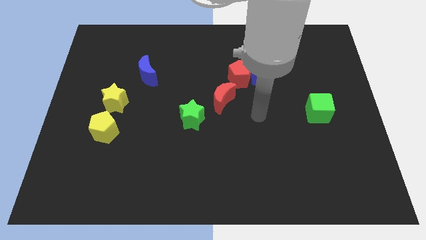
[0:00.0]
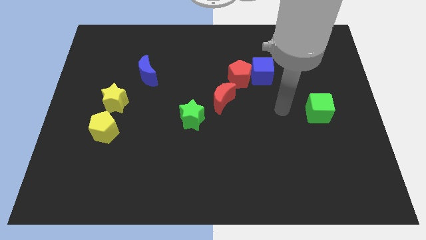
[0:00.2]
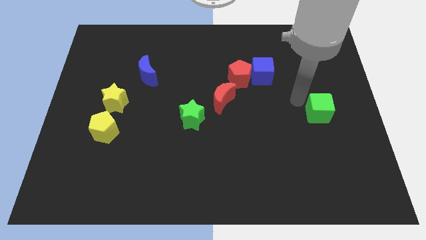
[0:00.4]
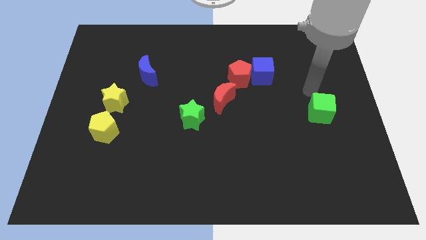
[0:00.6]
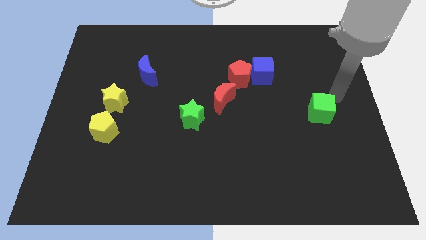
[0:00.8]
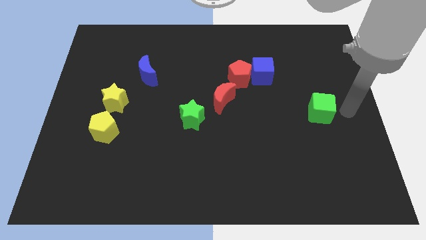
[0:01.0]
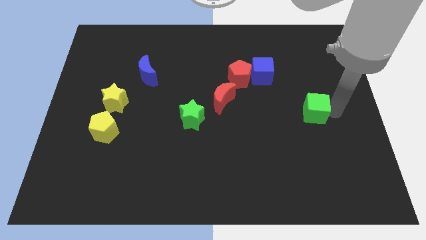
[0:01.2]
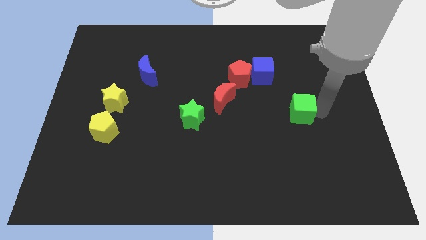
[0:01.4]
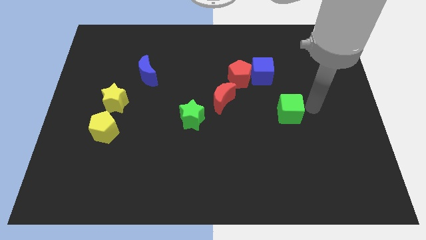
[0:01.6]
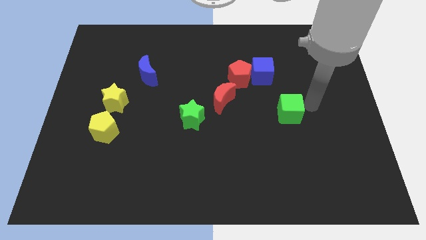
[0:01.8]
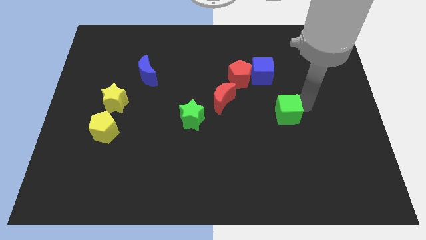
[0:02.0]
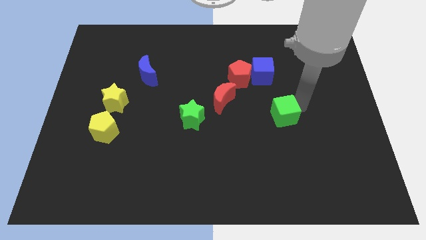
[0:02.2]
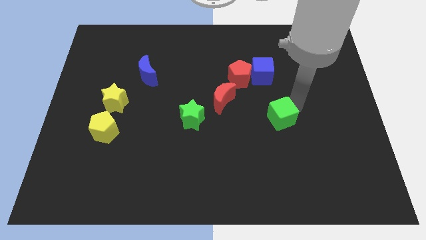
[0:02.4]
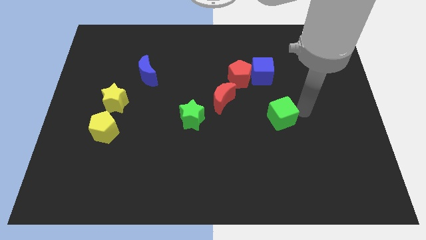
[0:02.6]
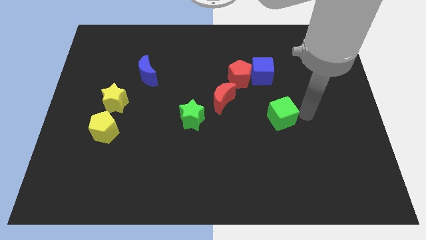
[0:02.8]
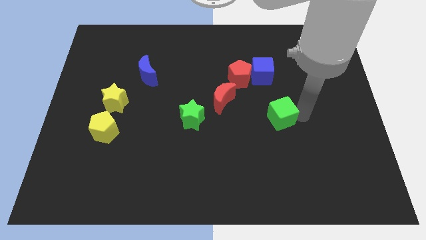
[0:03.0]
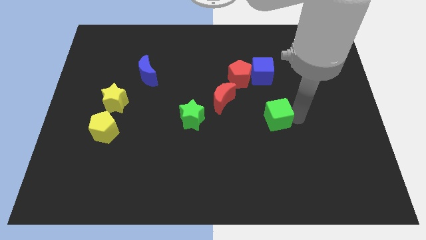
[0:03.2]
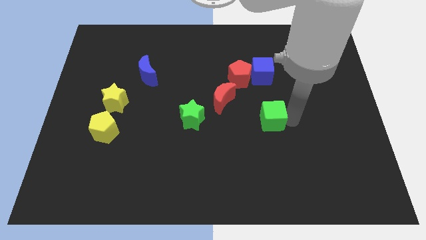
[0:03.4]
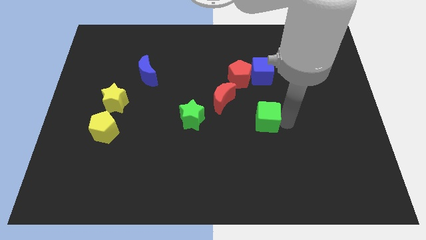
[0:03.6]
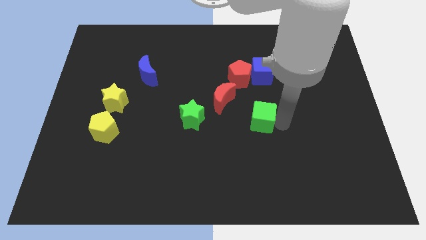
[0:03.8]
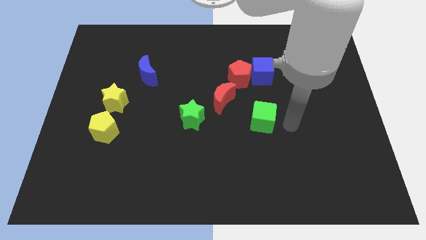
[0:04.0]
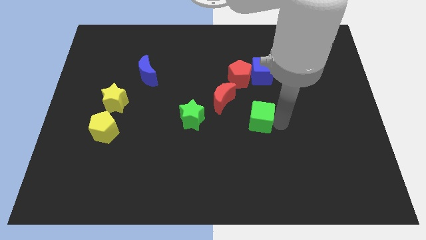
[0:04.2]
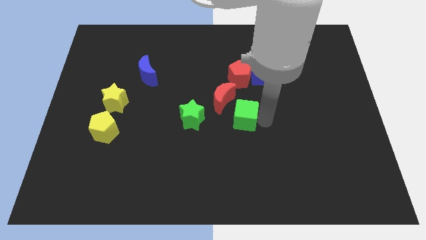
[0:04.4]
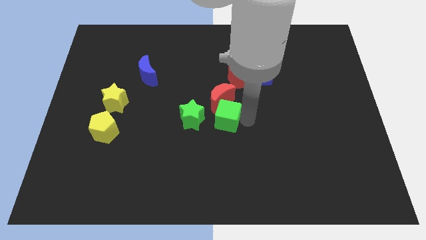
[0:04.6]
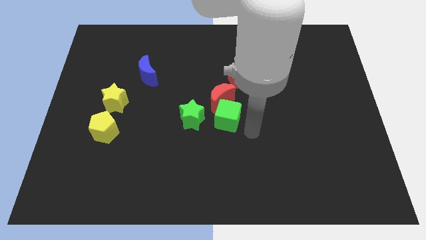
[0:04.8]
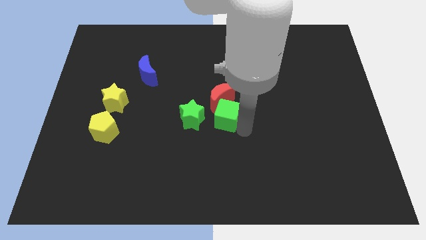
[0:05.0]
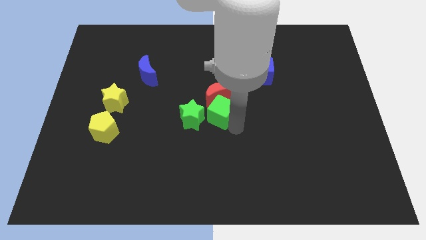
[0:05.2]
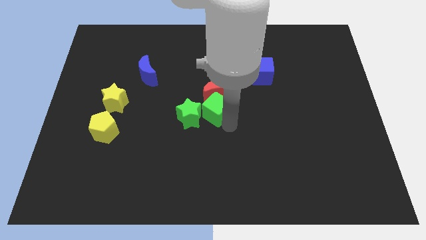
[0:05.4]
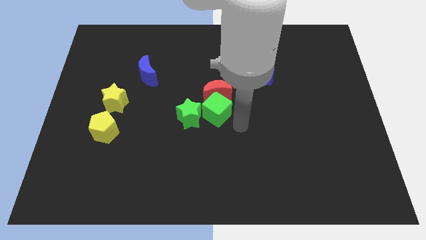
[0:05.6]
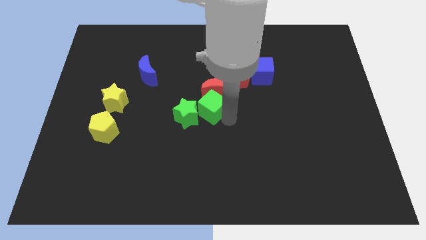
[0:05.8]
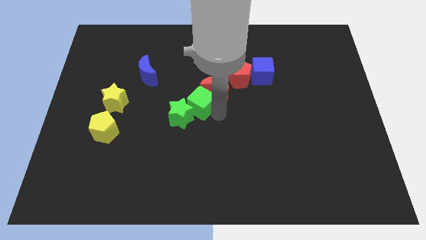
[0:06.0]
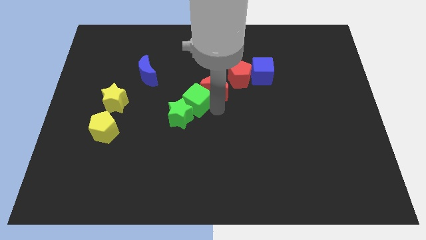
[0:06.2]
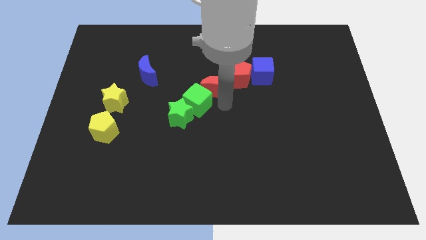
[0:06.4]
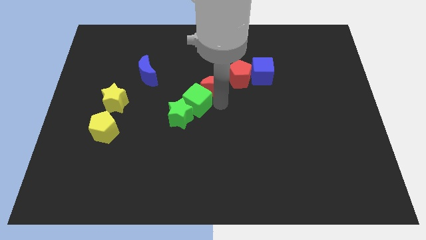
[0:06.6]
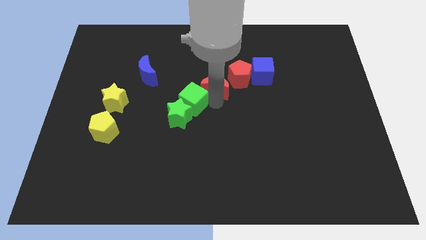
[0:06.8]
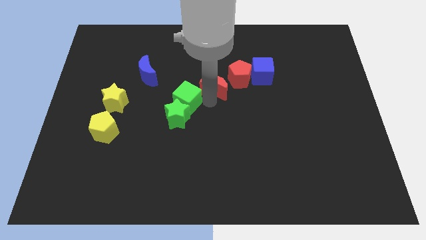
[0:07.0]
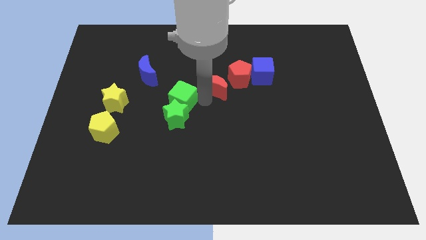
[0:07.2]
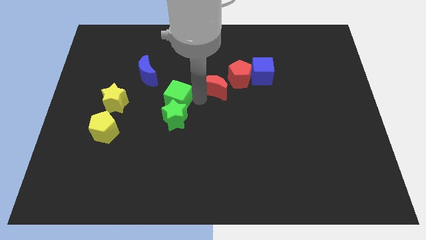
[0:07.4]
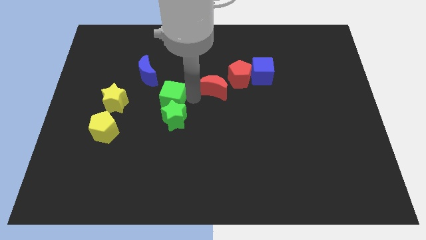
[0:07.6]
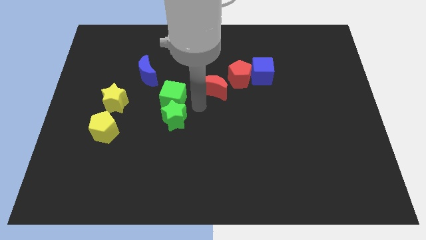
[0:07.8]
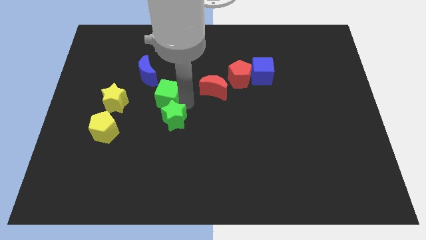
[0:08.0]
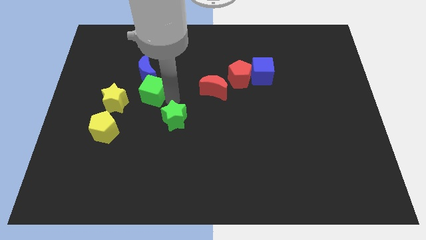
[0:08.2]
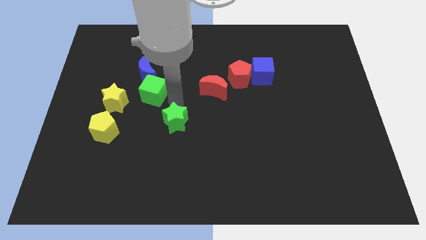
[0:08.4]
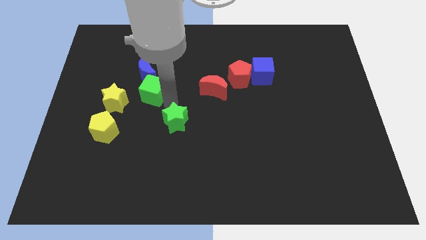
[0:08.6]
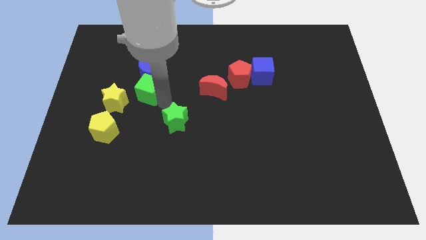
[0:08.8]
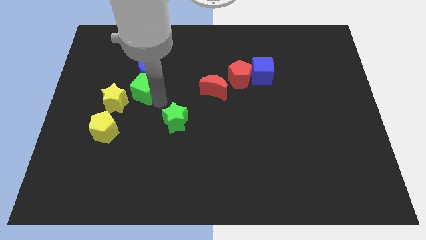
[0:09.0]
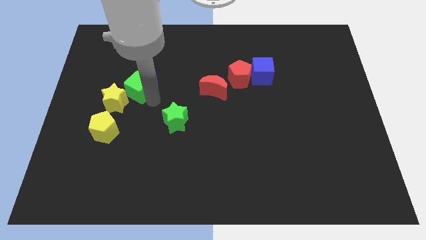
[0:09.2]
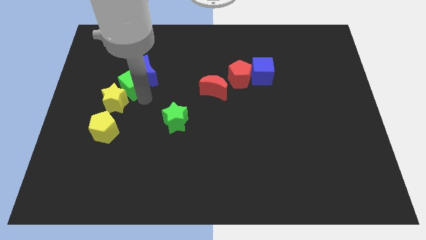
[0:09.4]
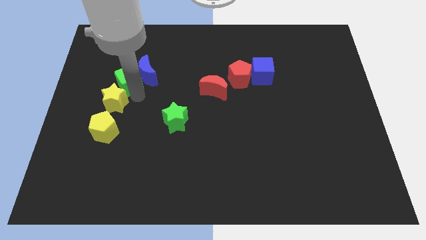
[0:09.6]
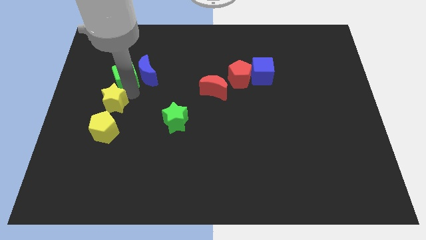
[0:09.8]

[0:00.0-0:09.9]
slide the green cube to the top left of the blue moon

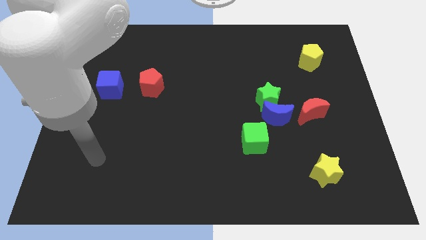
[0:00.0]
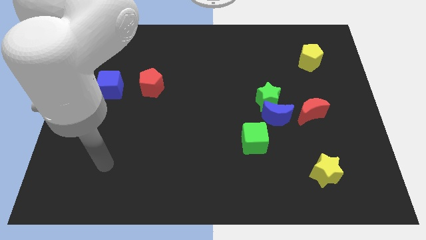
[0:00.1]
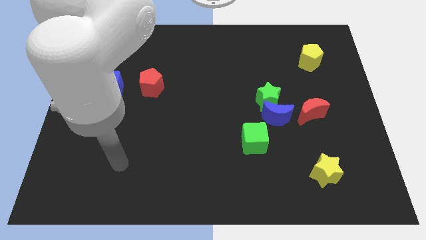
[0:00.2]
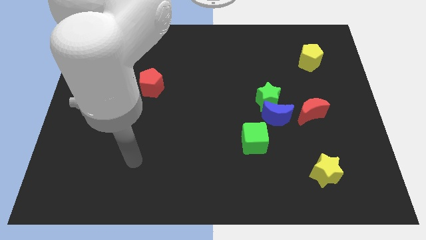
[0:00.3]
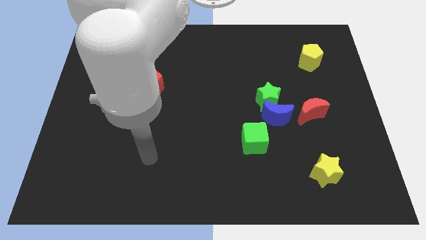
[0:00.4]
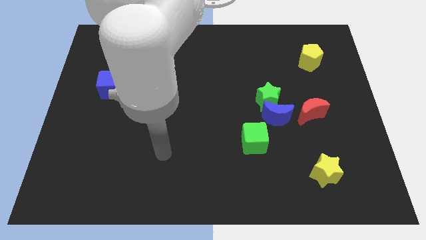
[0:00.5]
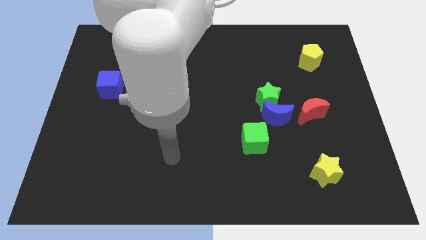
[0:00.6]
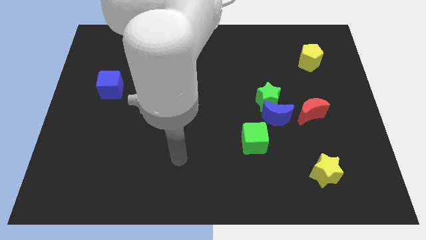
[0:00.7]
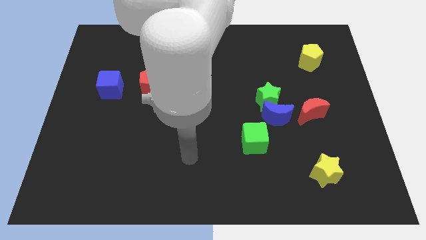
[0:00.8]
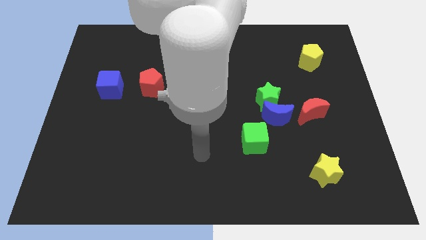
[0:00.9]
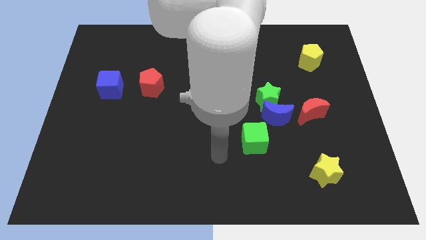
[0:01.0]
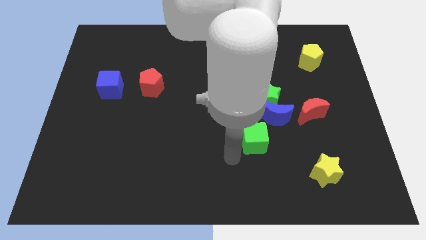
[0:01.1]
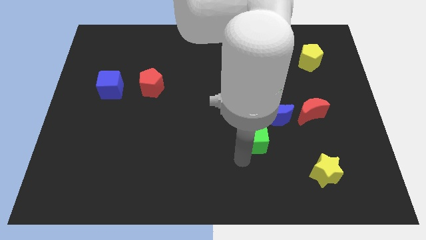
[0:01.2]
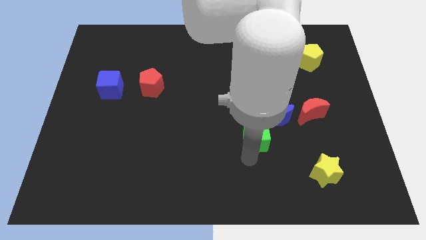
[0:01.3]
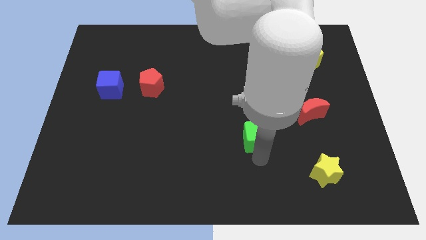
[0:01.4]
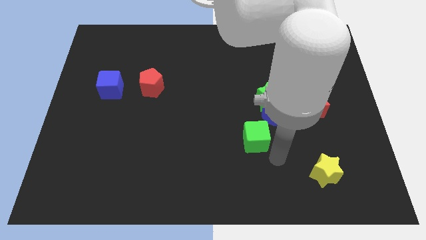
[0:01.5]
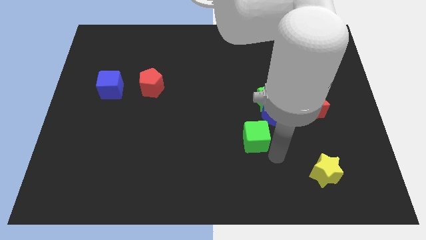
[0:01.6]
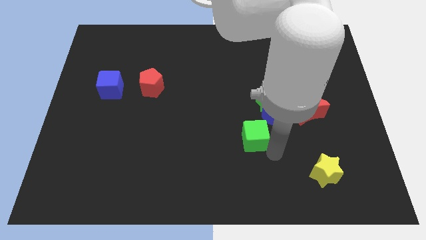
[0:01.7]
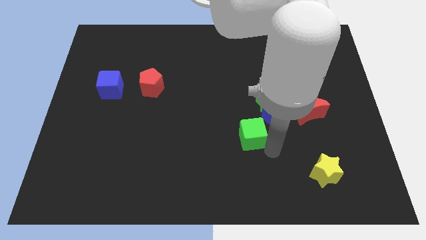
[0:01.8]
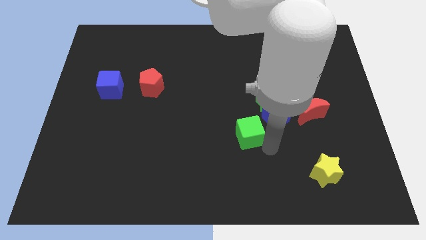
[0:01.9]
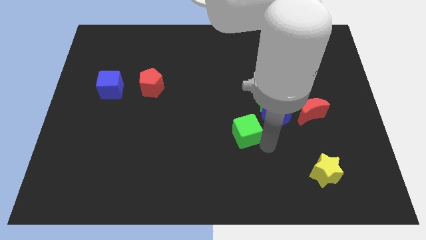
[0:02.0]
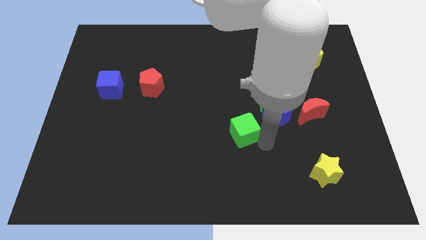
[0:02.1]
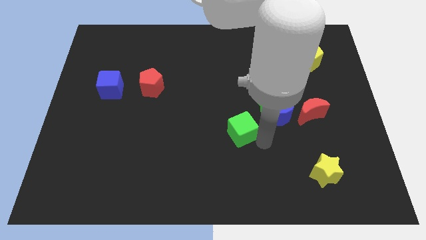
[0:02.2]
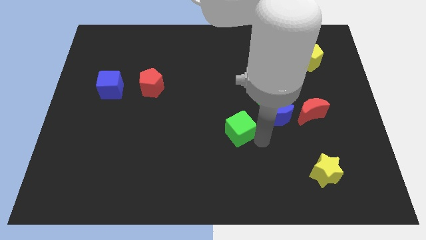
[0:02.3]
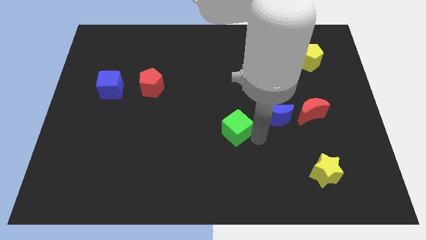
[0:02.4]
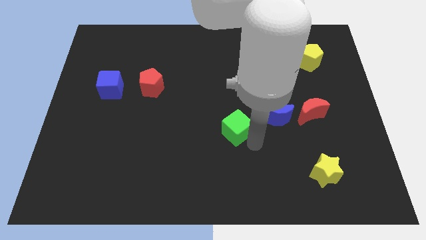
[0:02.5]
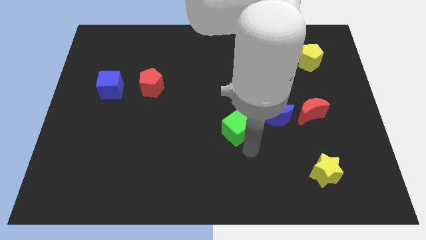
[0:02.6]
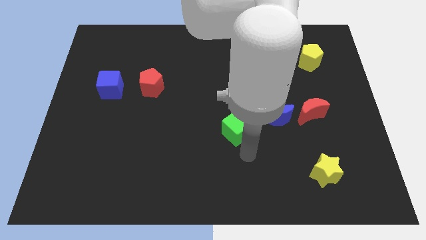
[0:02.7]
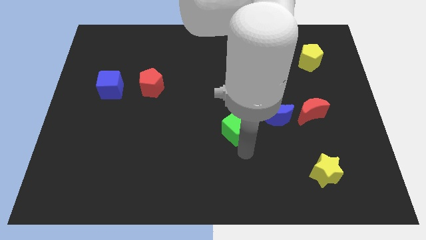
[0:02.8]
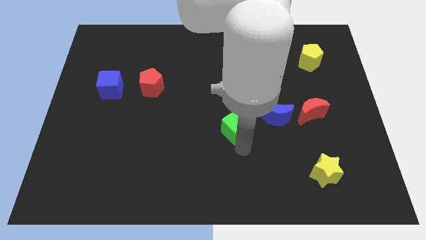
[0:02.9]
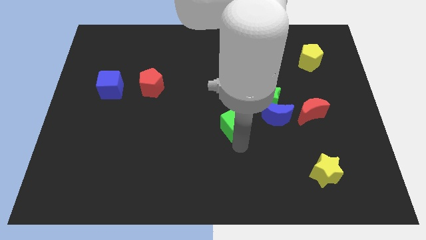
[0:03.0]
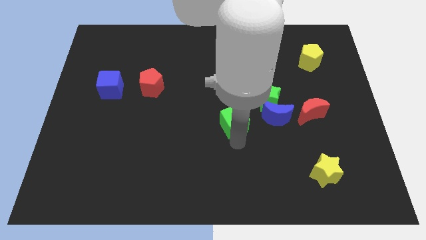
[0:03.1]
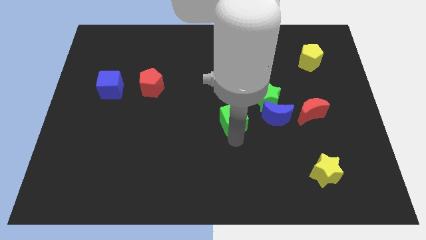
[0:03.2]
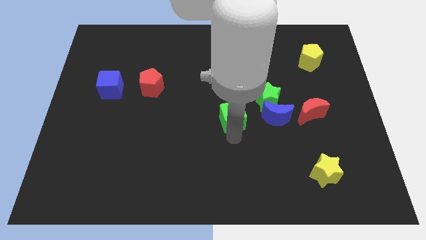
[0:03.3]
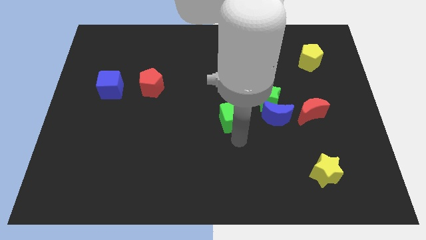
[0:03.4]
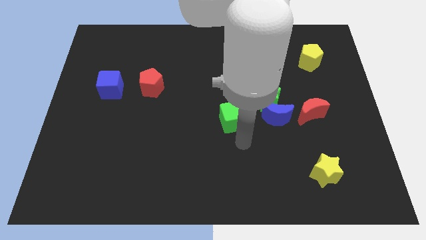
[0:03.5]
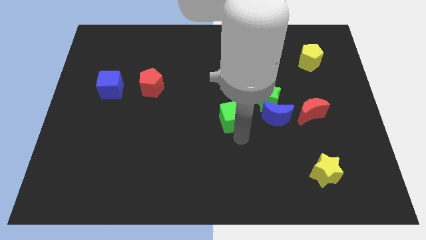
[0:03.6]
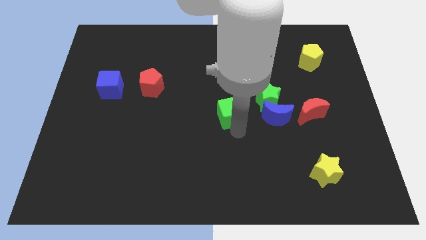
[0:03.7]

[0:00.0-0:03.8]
slide the green cube just left of the green star
